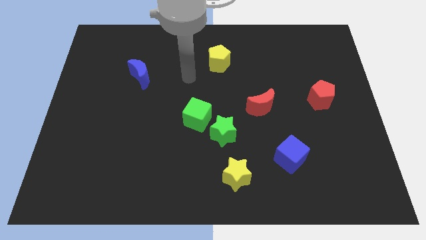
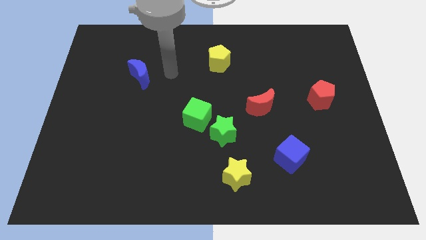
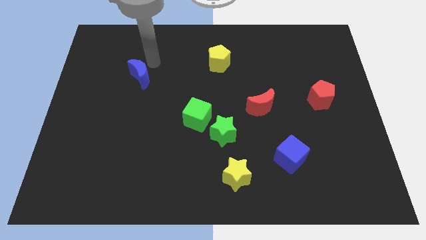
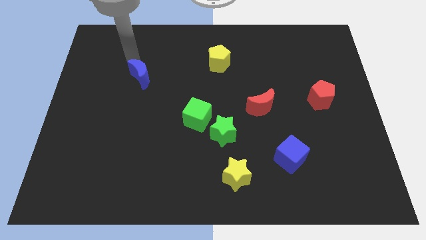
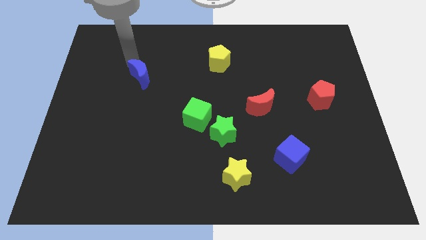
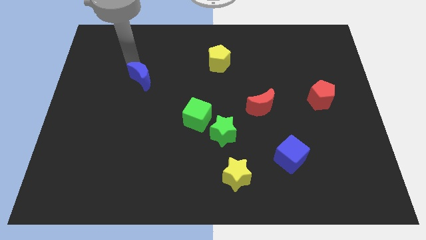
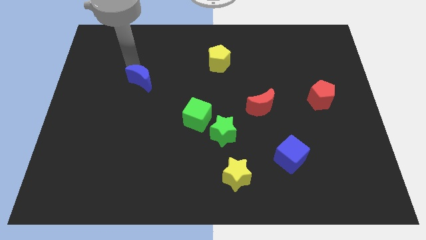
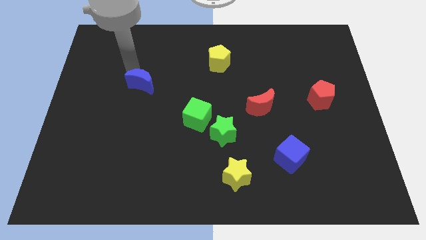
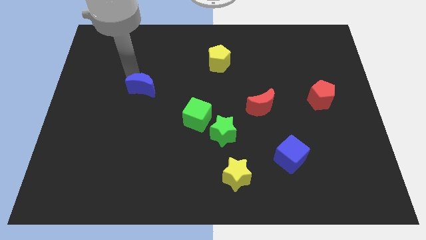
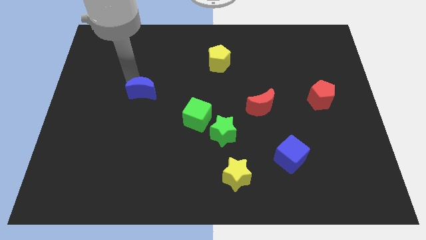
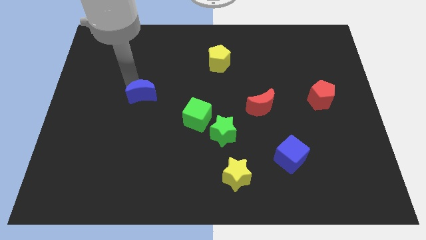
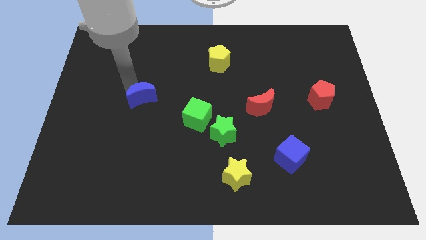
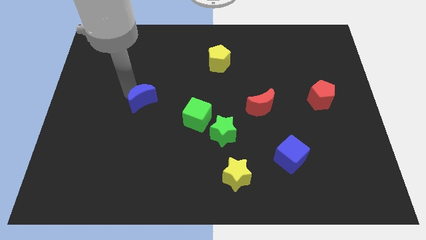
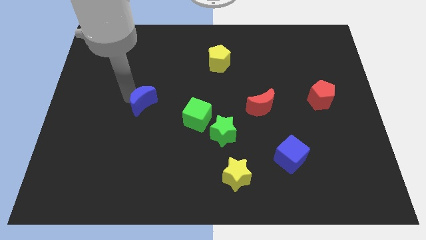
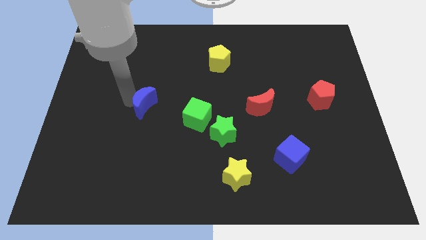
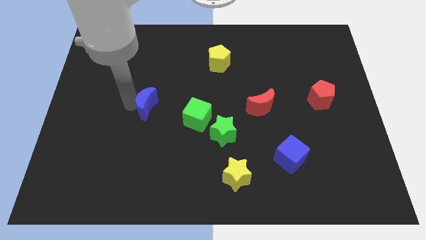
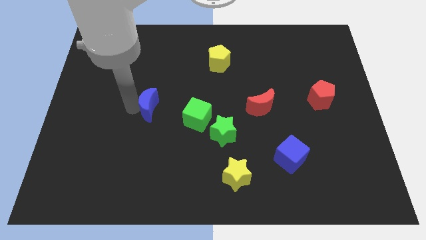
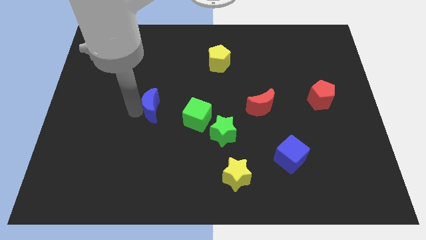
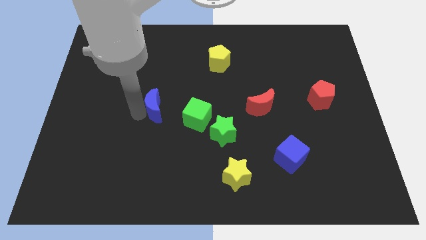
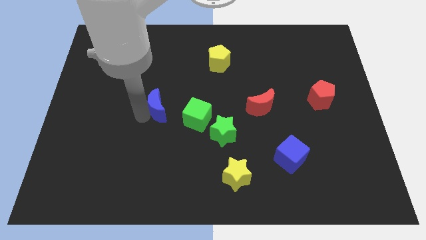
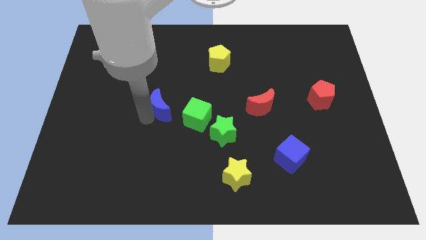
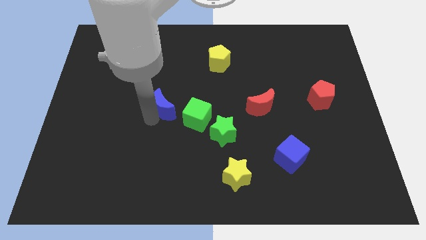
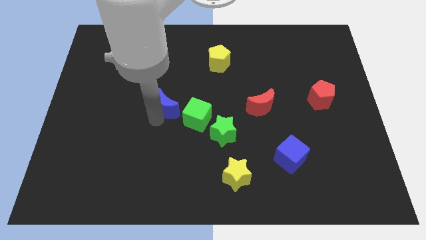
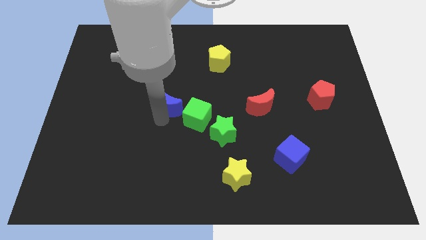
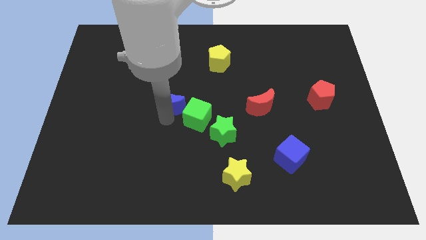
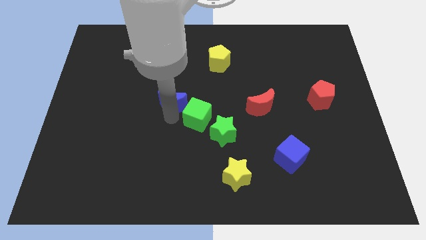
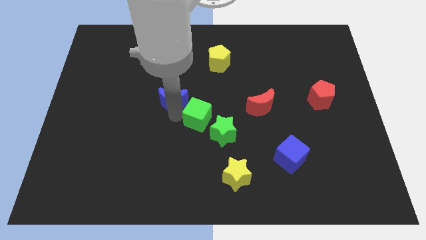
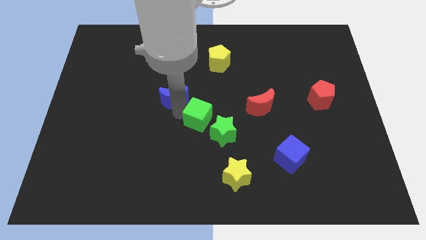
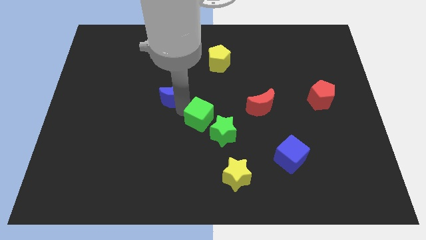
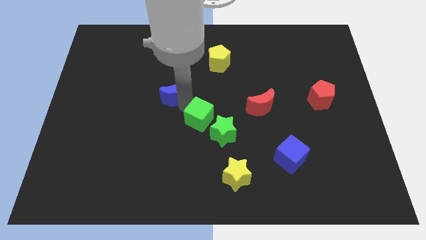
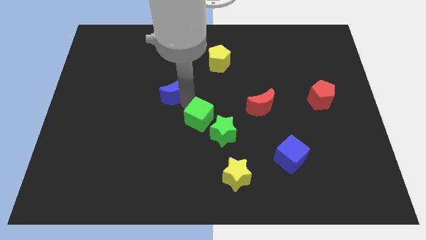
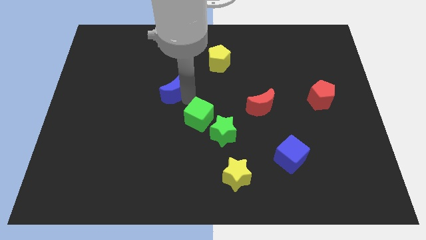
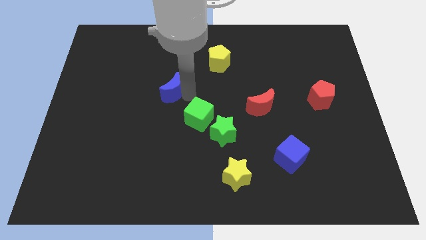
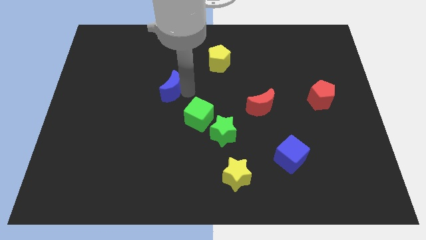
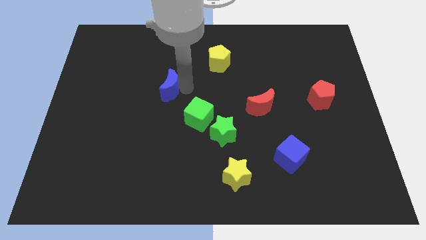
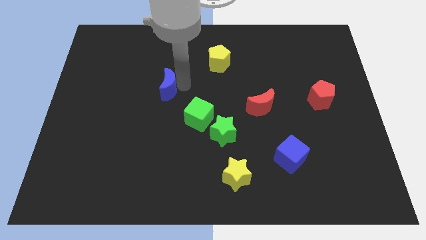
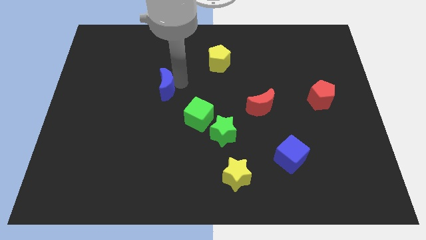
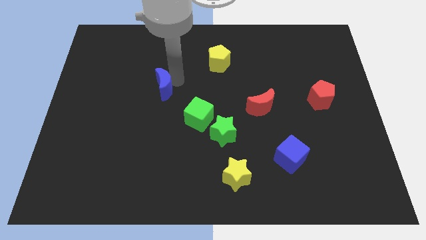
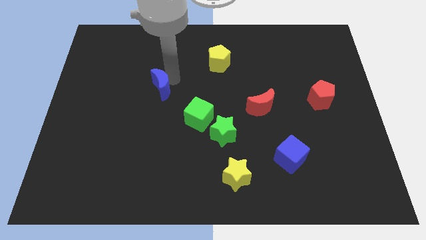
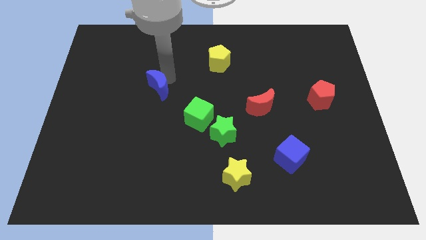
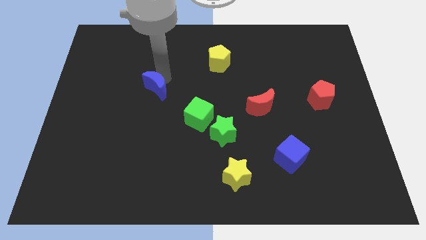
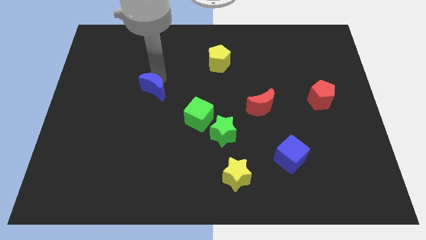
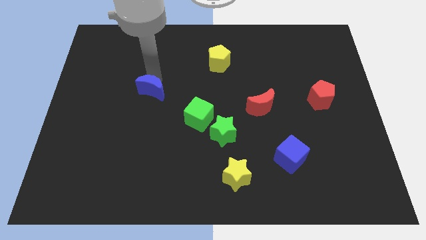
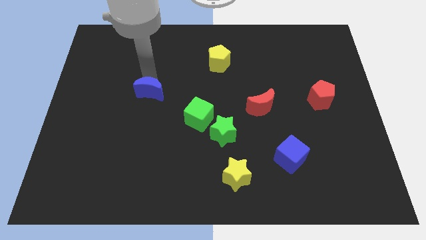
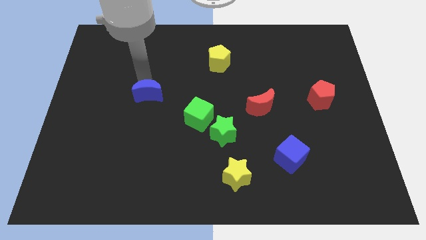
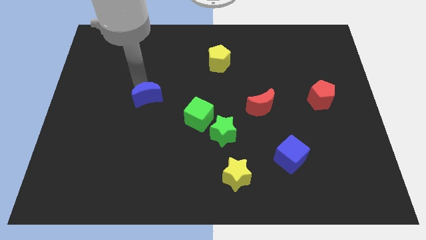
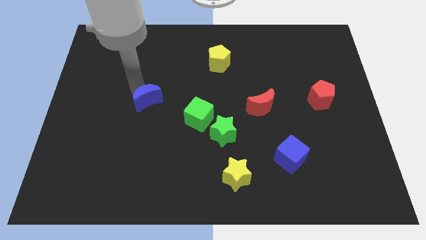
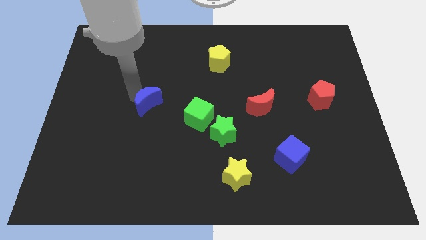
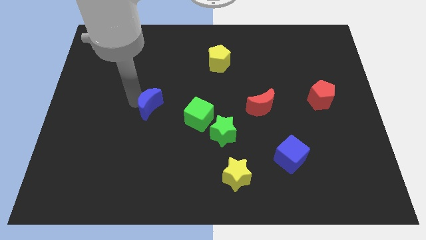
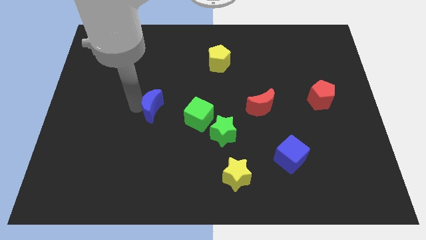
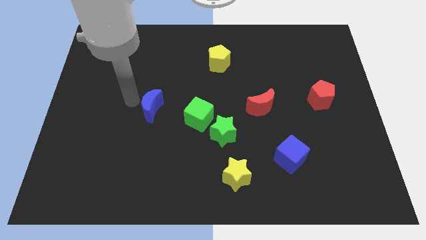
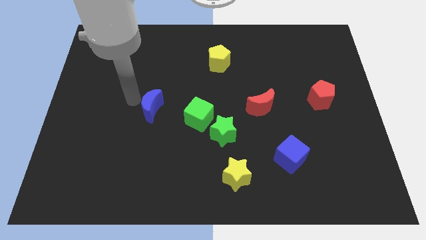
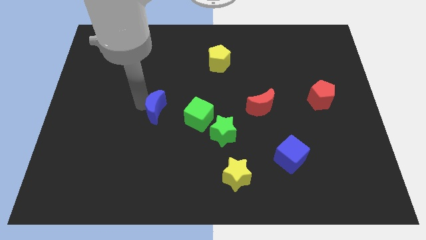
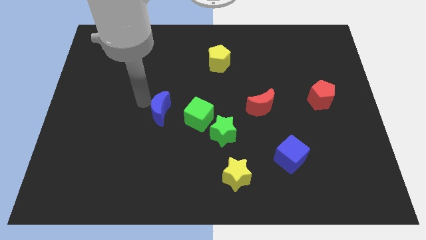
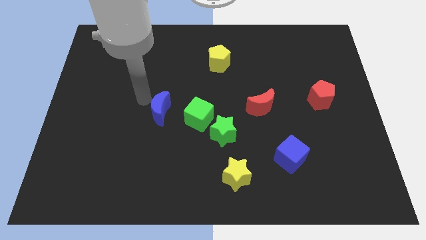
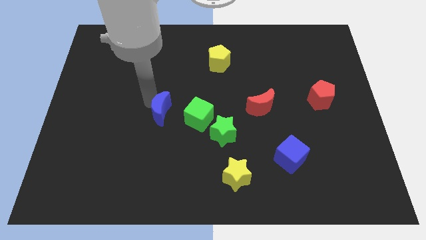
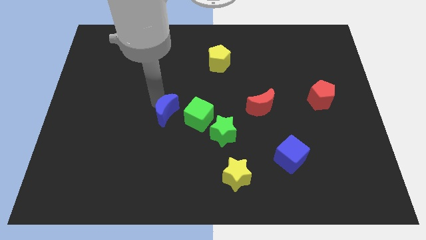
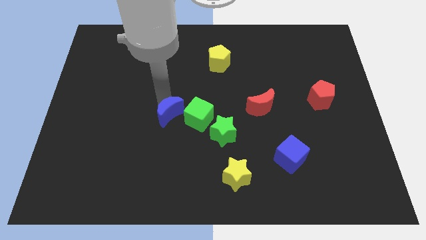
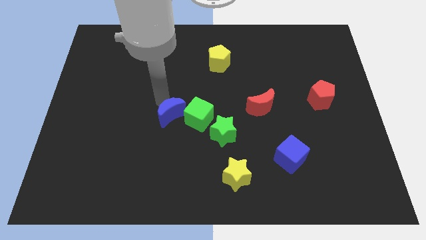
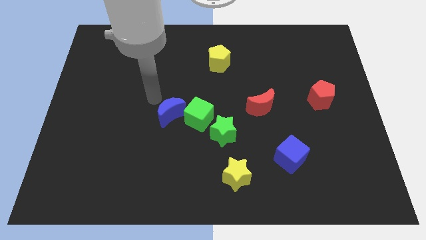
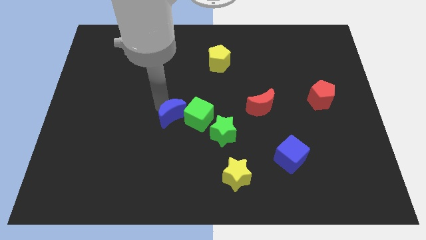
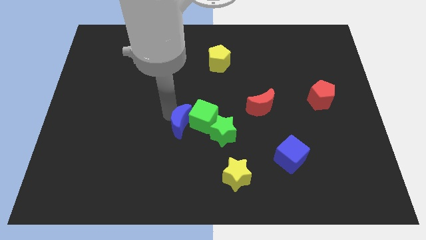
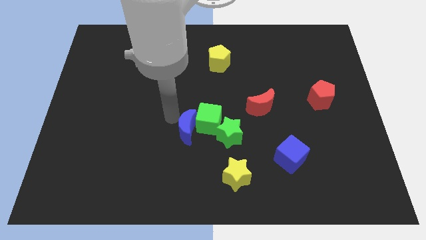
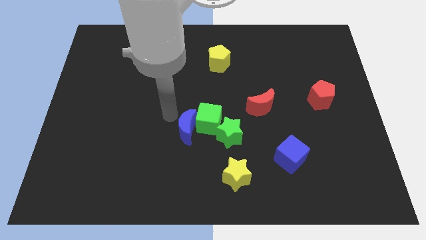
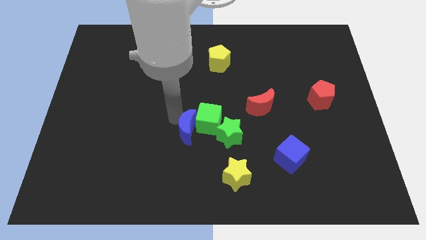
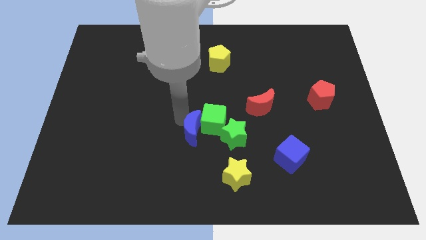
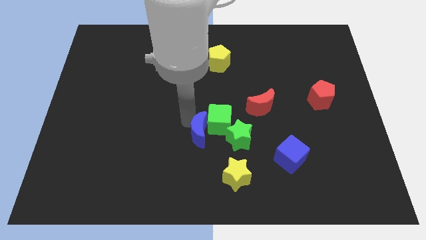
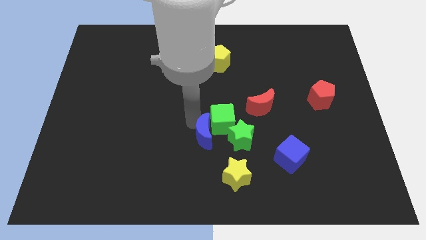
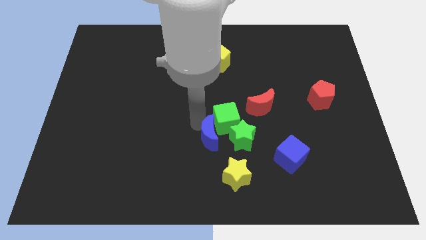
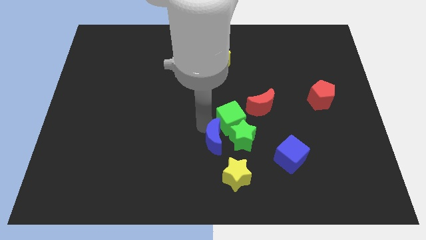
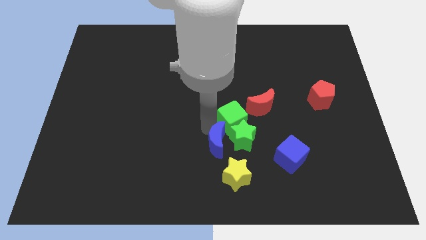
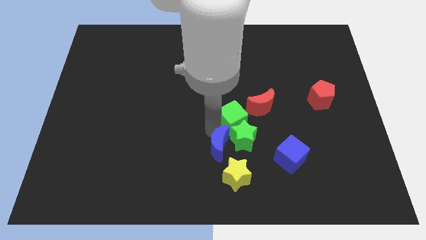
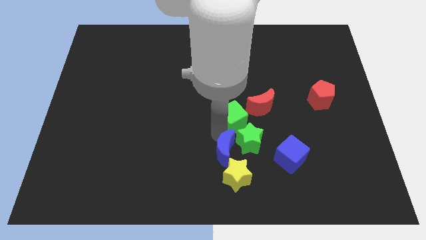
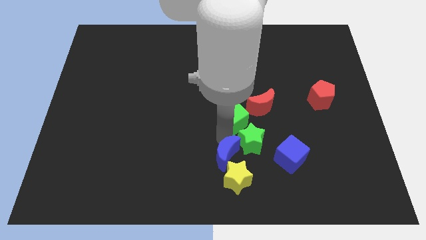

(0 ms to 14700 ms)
push the blue moon to the yellow star

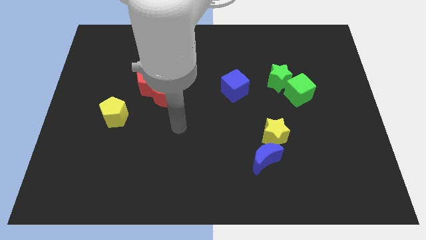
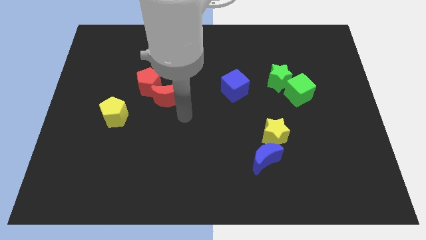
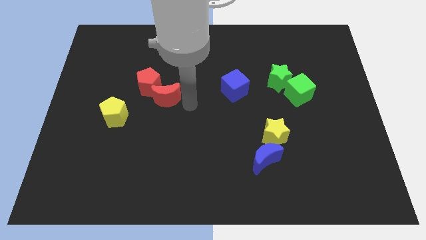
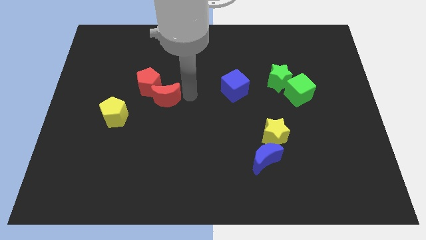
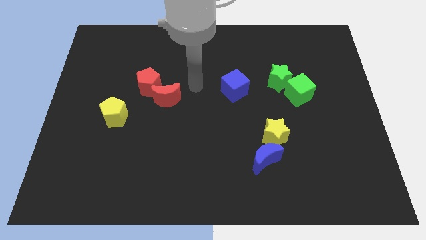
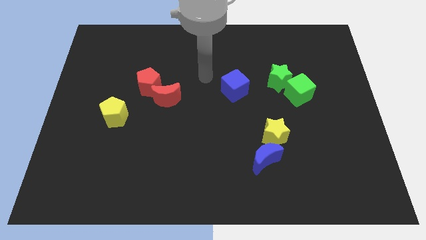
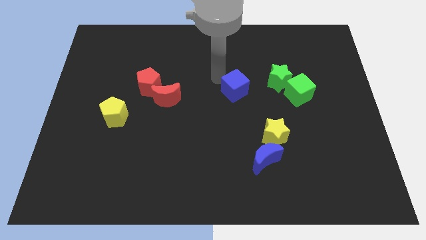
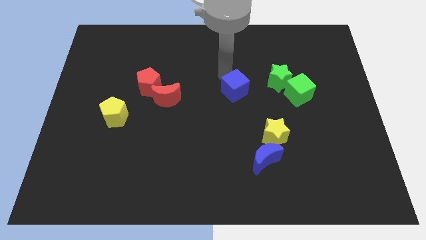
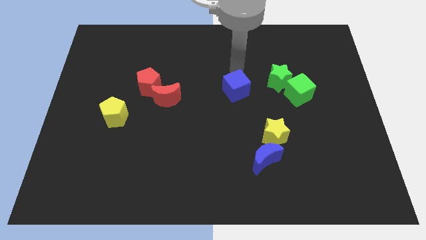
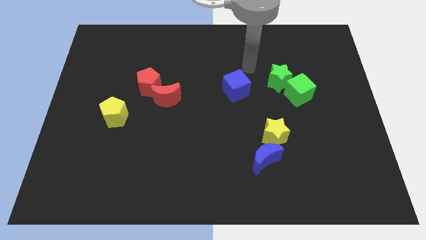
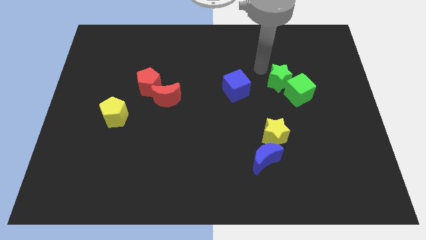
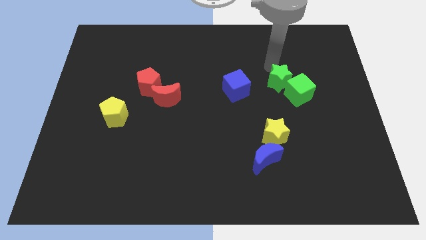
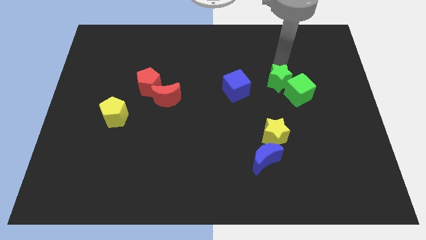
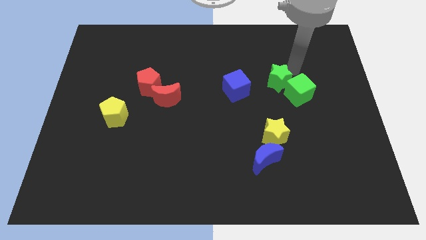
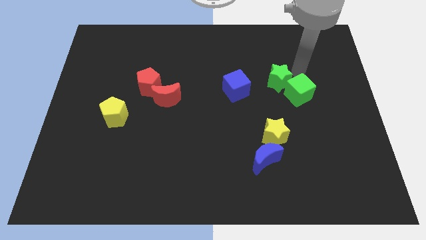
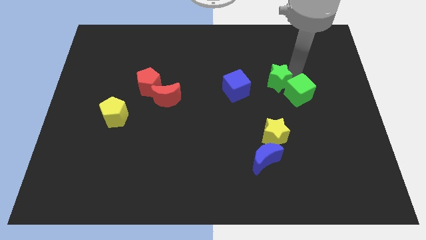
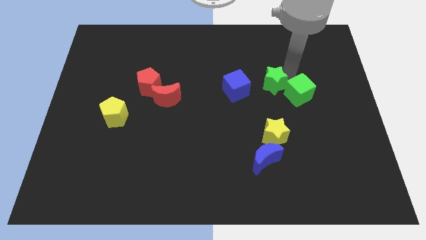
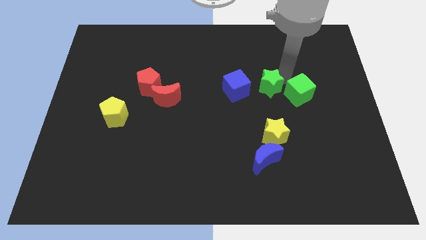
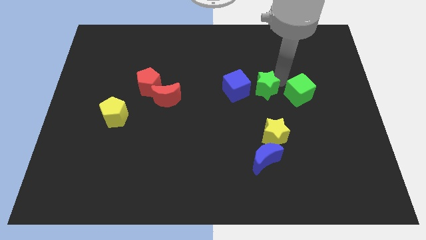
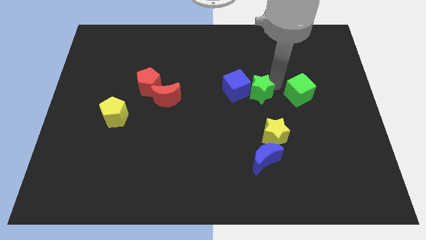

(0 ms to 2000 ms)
push the green star next to the blue cube
